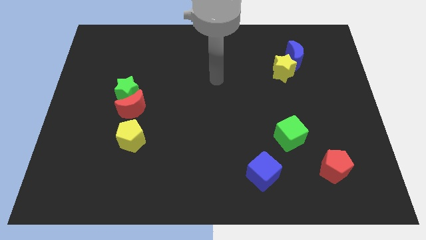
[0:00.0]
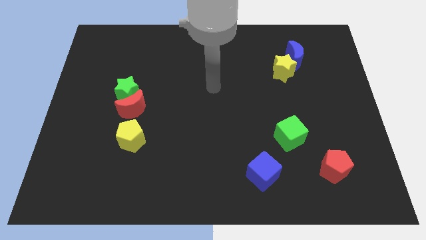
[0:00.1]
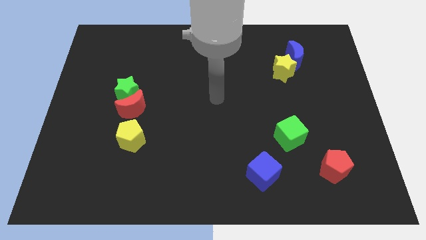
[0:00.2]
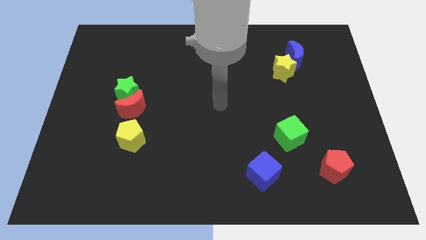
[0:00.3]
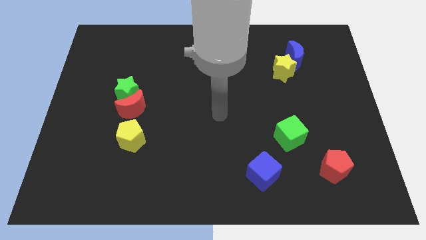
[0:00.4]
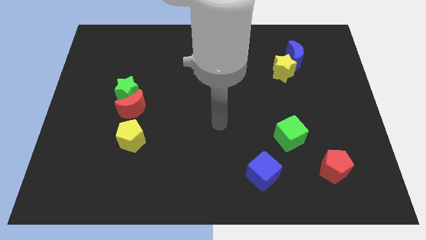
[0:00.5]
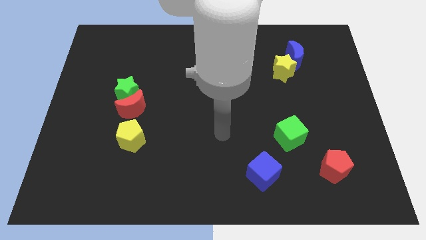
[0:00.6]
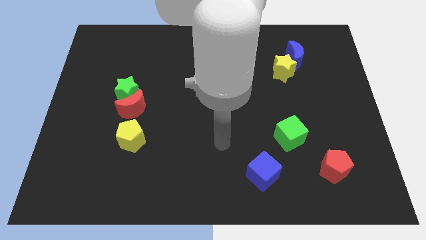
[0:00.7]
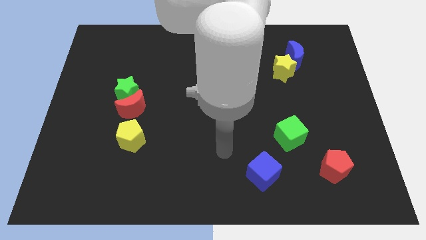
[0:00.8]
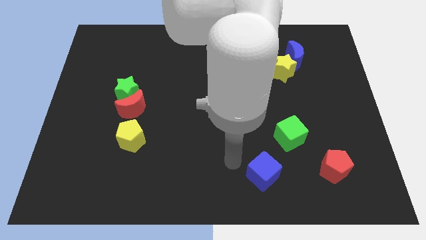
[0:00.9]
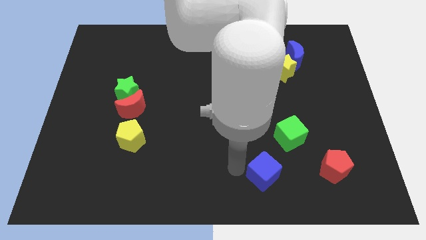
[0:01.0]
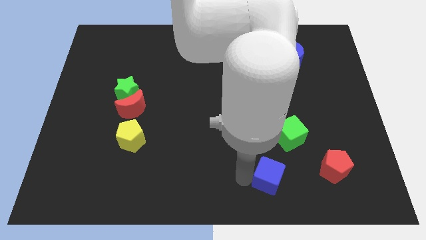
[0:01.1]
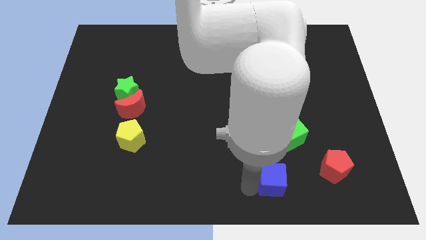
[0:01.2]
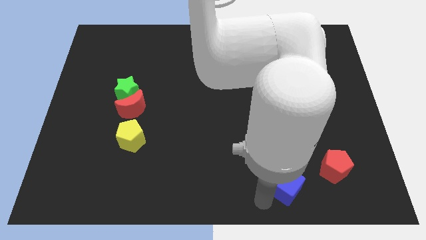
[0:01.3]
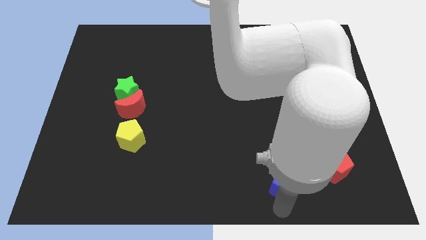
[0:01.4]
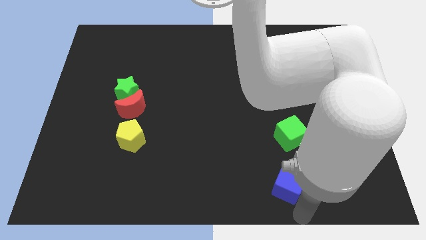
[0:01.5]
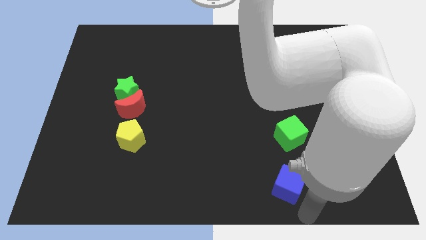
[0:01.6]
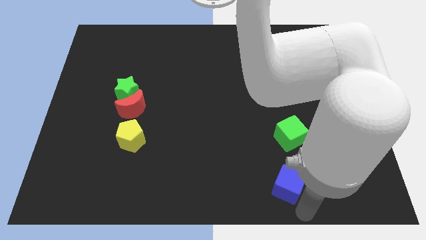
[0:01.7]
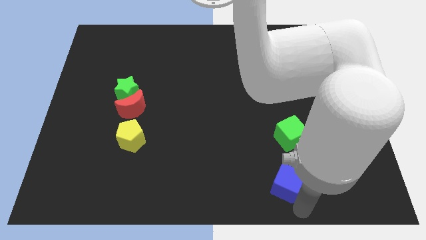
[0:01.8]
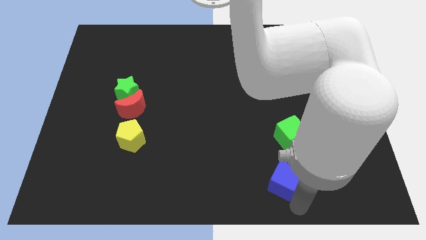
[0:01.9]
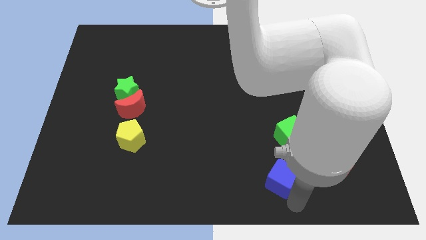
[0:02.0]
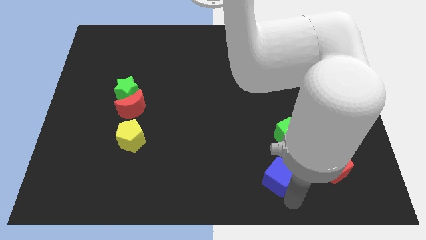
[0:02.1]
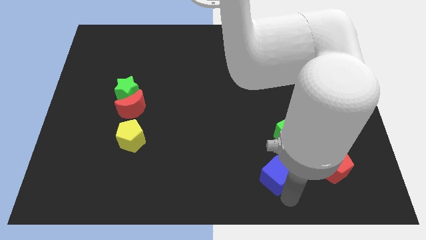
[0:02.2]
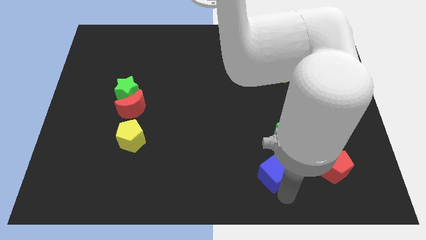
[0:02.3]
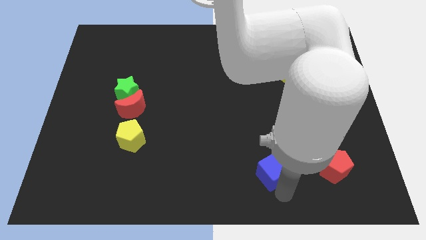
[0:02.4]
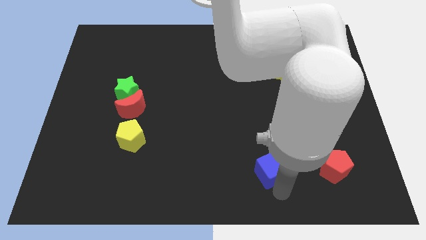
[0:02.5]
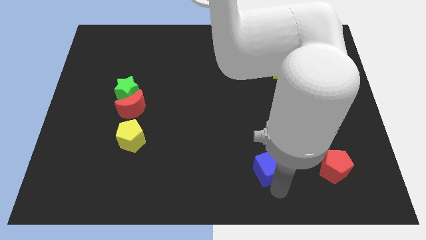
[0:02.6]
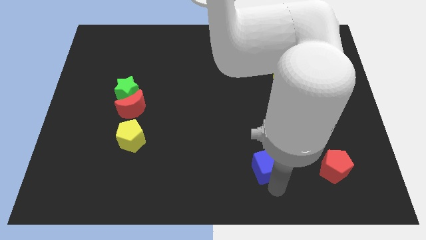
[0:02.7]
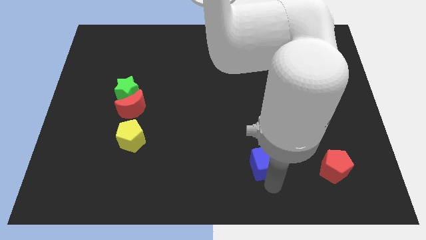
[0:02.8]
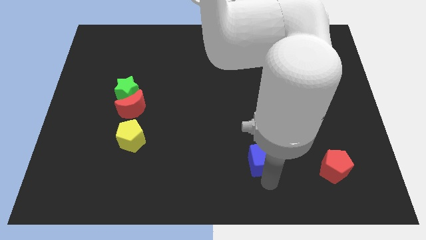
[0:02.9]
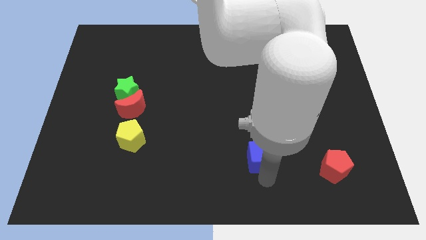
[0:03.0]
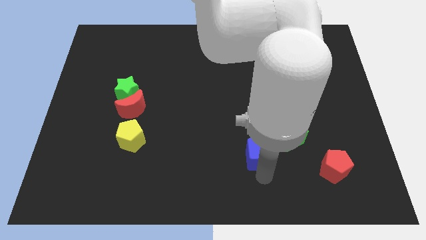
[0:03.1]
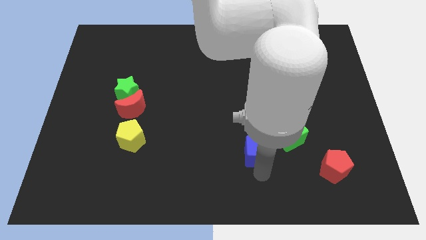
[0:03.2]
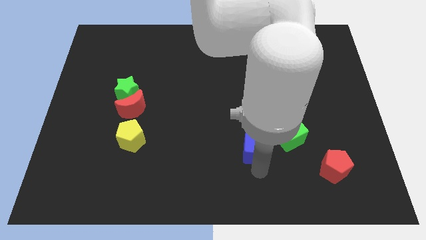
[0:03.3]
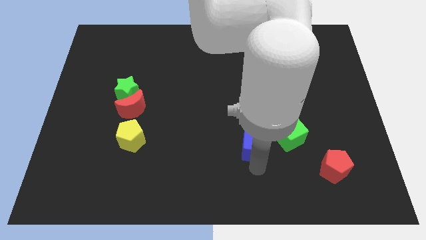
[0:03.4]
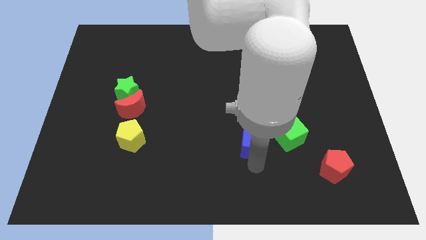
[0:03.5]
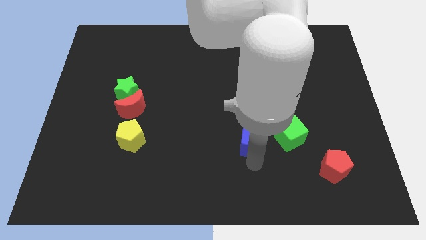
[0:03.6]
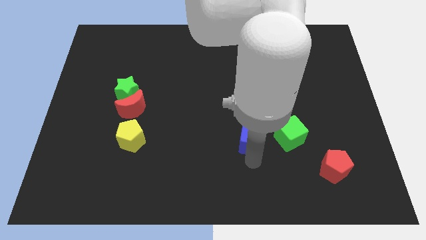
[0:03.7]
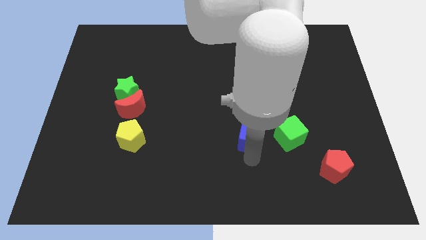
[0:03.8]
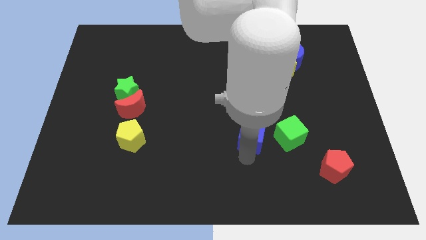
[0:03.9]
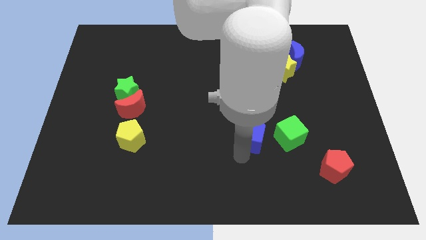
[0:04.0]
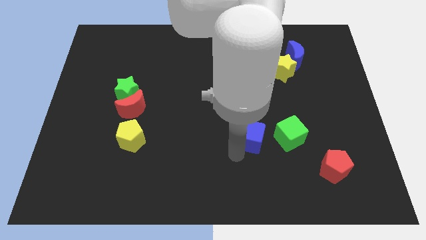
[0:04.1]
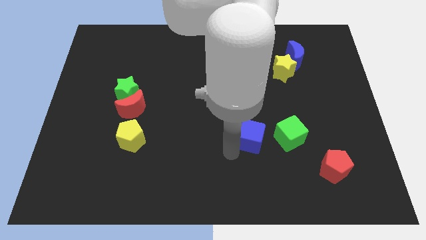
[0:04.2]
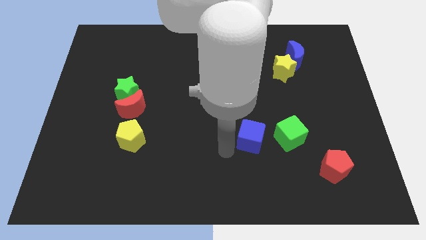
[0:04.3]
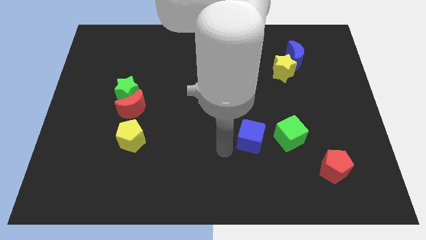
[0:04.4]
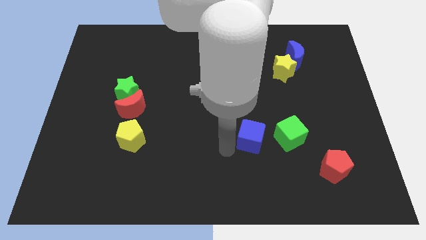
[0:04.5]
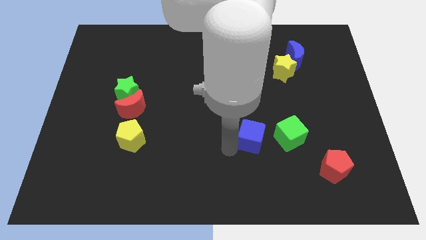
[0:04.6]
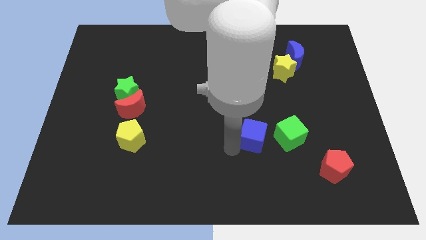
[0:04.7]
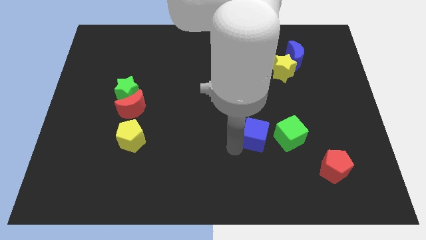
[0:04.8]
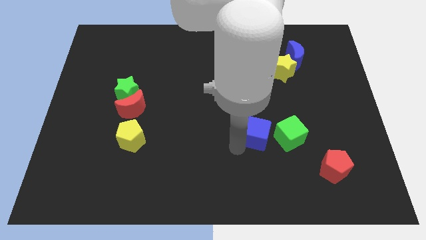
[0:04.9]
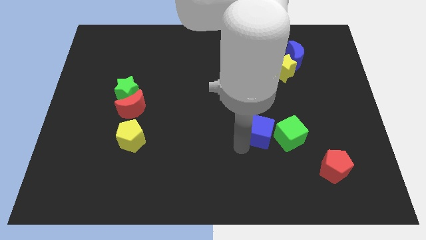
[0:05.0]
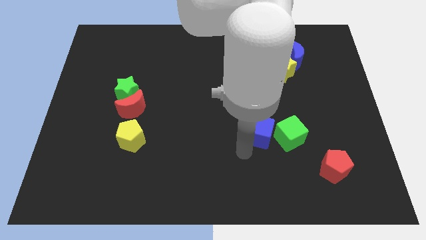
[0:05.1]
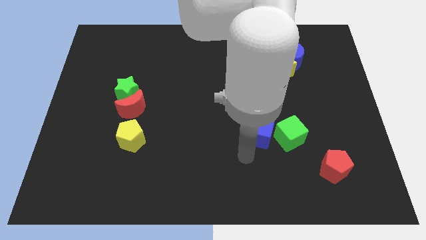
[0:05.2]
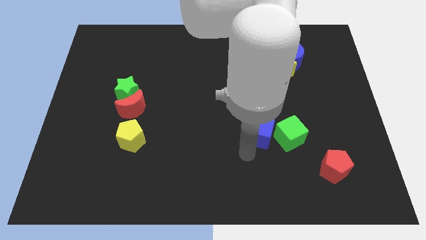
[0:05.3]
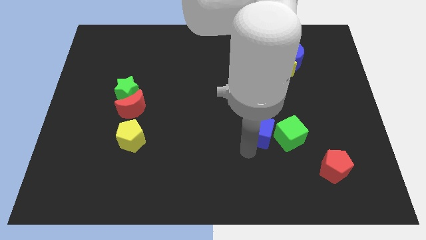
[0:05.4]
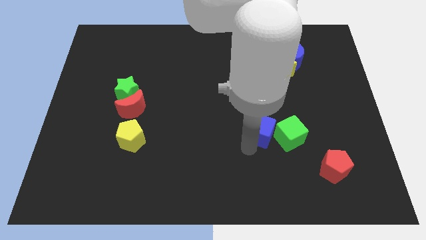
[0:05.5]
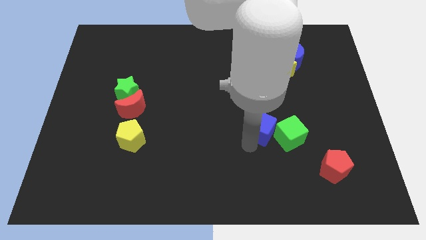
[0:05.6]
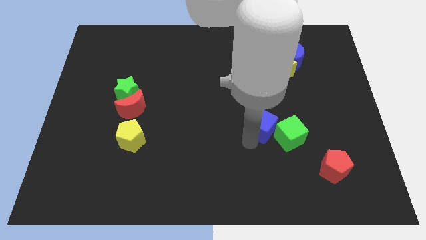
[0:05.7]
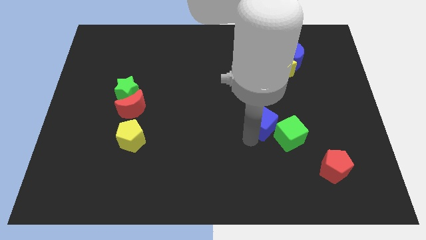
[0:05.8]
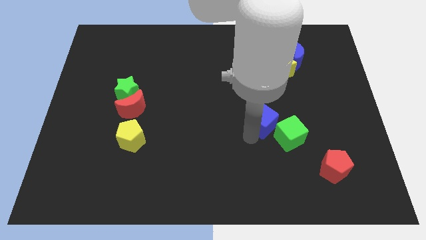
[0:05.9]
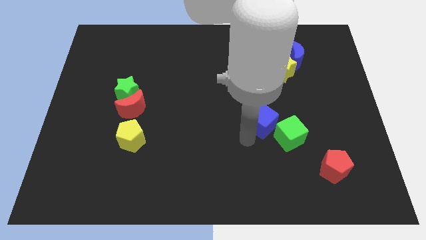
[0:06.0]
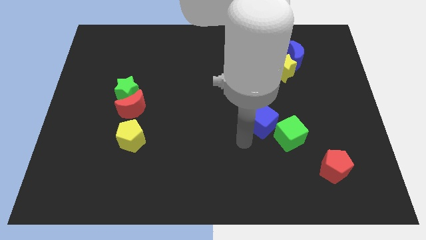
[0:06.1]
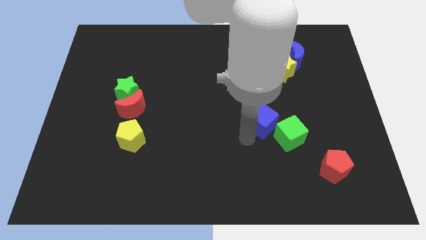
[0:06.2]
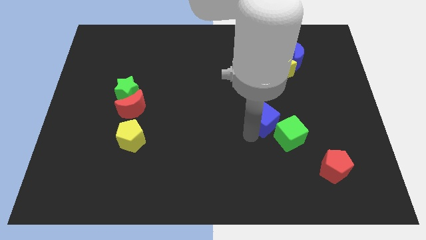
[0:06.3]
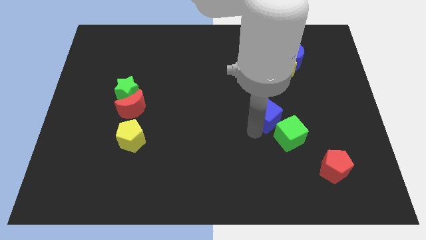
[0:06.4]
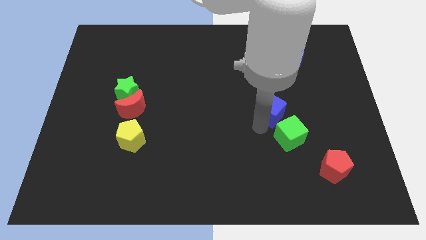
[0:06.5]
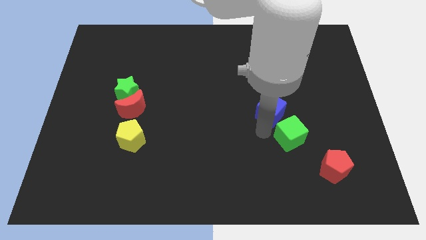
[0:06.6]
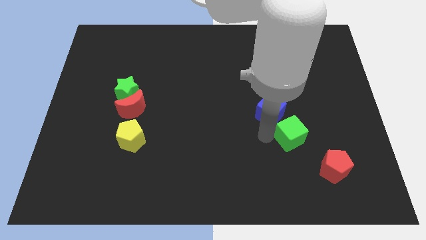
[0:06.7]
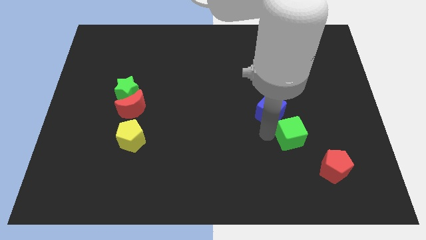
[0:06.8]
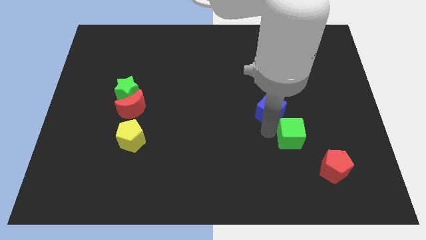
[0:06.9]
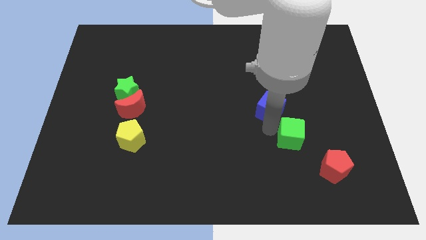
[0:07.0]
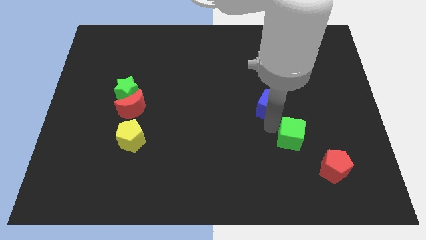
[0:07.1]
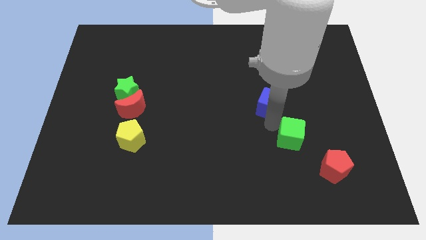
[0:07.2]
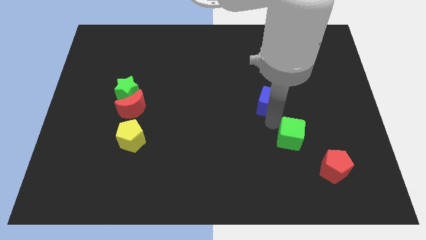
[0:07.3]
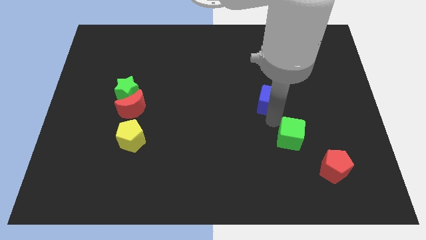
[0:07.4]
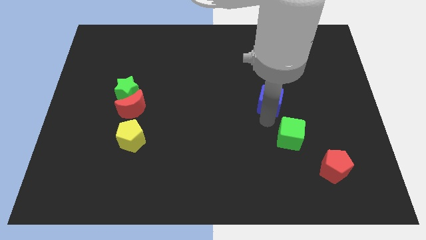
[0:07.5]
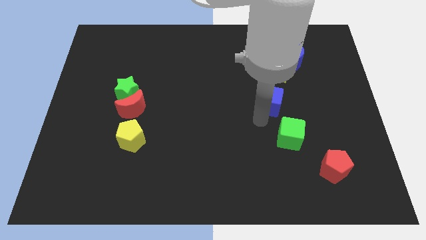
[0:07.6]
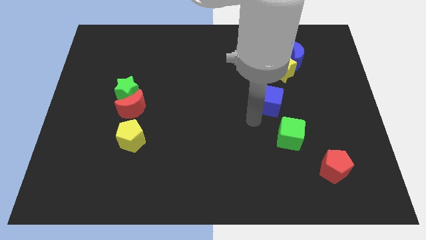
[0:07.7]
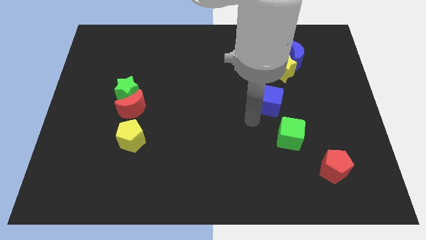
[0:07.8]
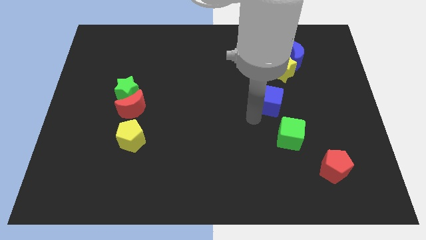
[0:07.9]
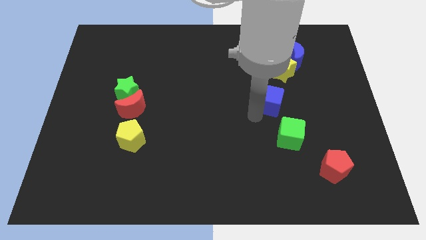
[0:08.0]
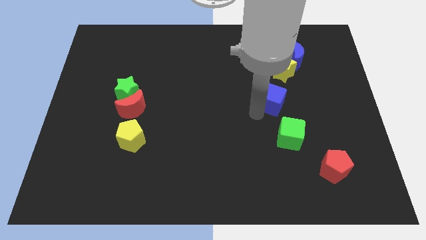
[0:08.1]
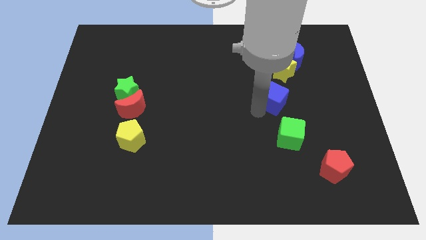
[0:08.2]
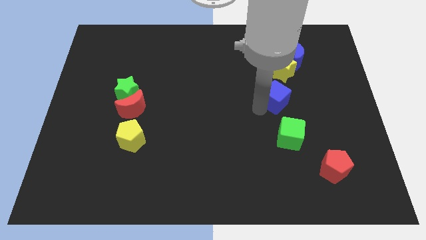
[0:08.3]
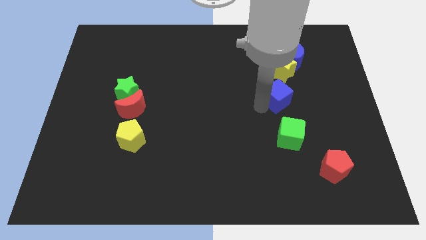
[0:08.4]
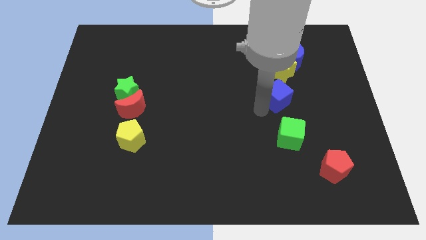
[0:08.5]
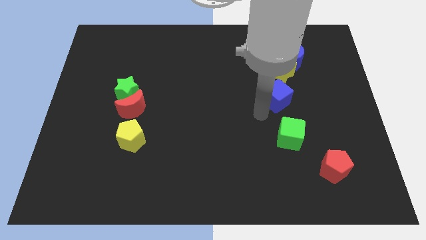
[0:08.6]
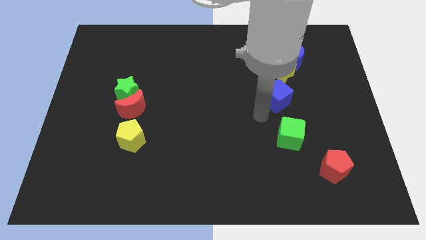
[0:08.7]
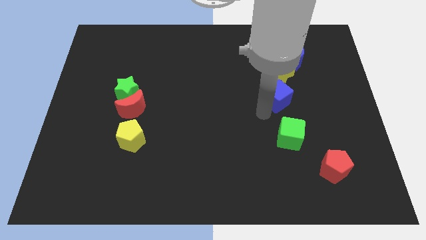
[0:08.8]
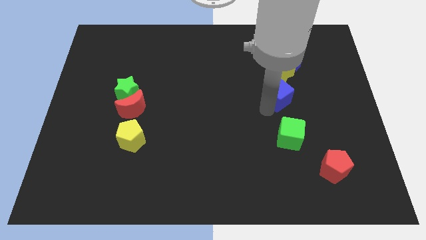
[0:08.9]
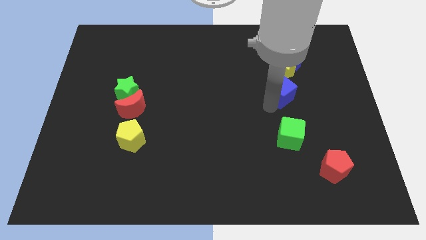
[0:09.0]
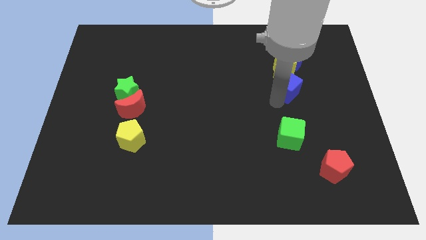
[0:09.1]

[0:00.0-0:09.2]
push the blue cube towards the yellow star
